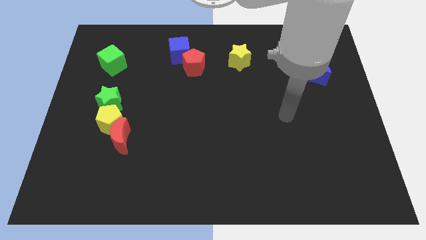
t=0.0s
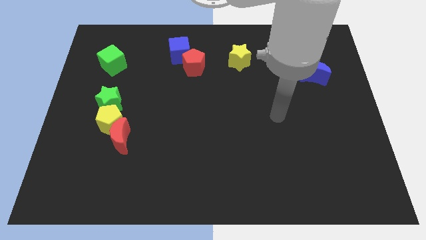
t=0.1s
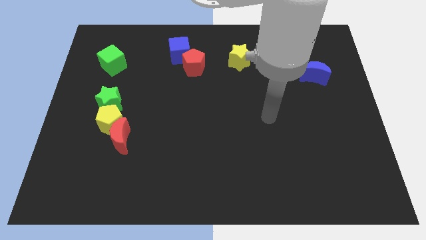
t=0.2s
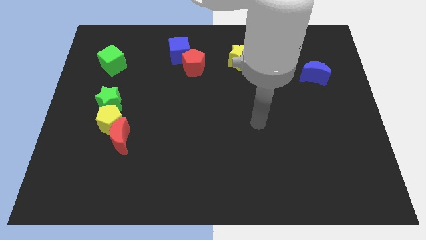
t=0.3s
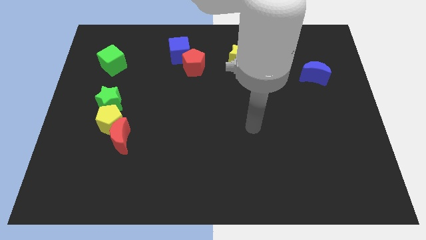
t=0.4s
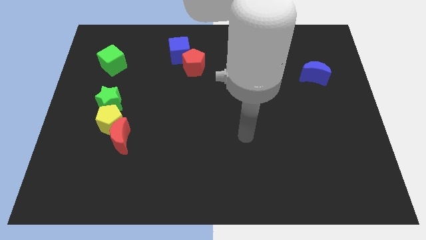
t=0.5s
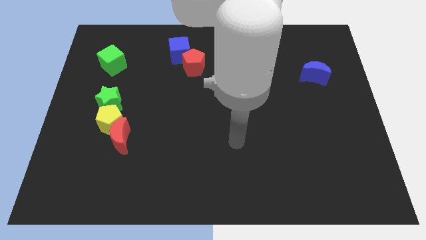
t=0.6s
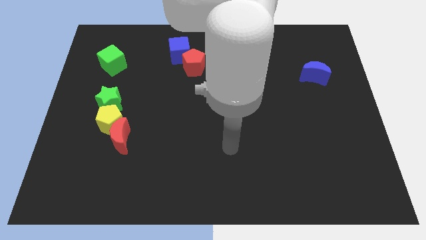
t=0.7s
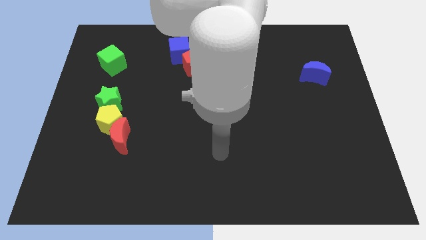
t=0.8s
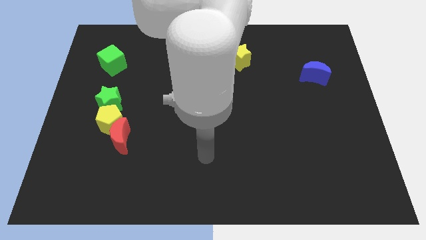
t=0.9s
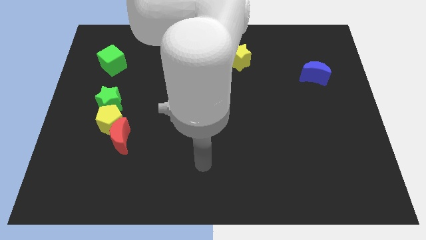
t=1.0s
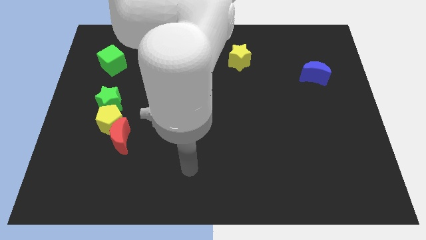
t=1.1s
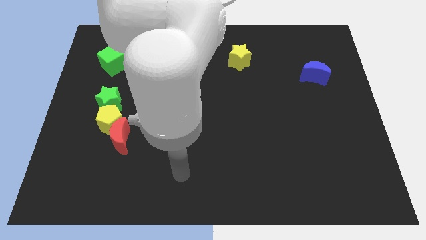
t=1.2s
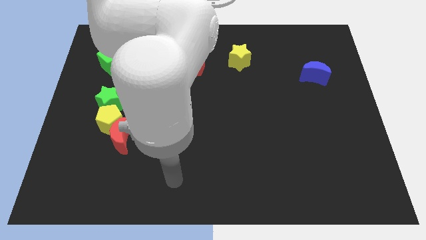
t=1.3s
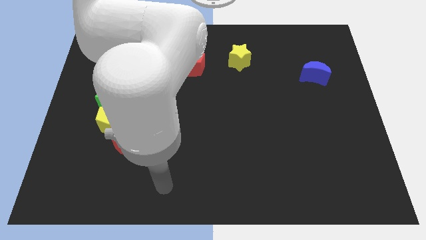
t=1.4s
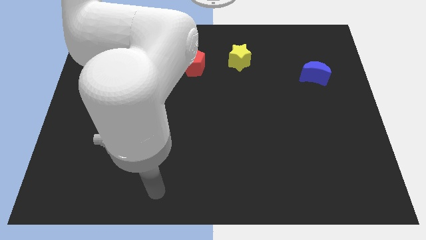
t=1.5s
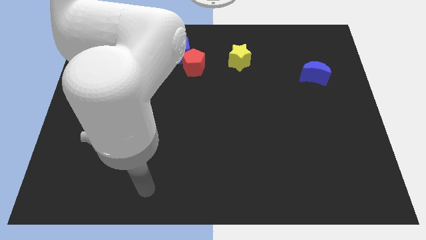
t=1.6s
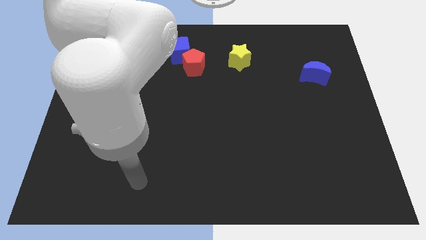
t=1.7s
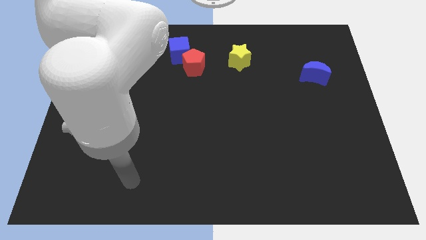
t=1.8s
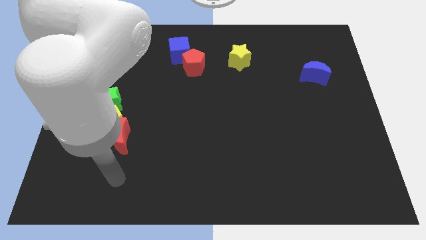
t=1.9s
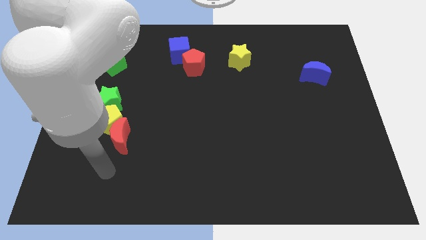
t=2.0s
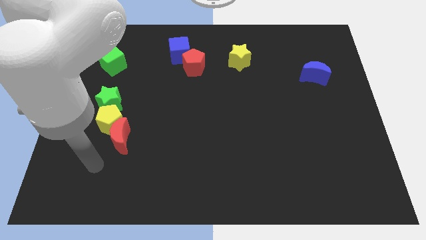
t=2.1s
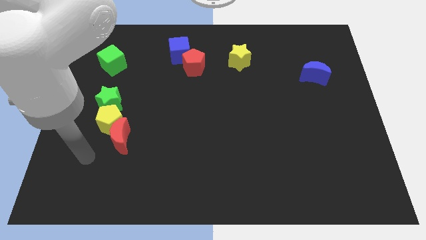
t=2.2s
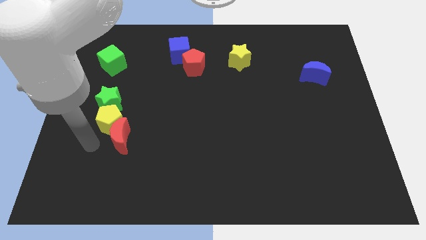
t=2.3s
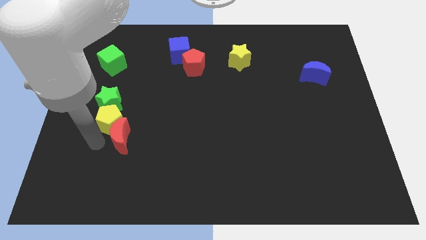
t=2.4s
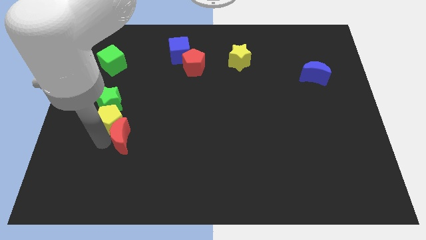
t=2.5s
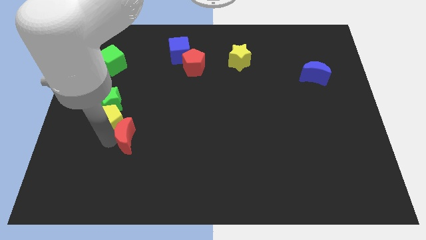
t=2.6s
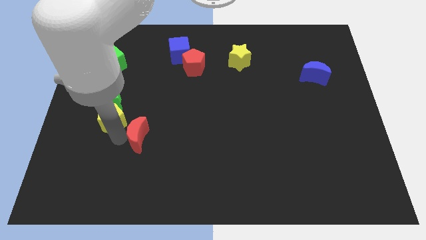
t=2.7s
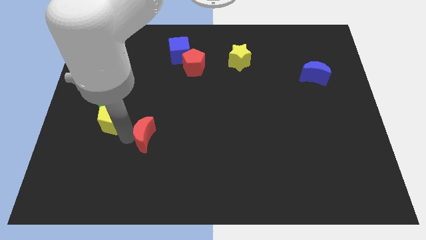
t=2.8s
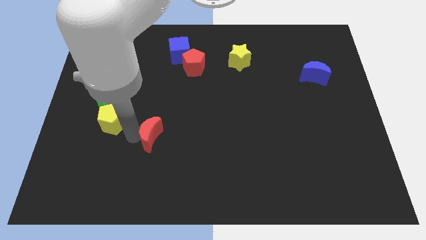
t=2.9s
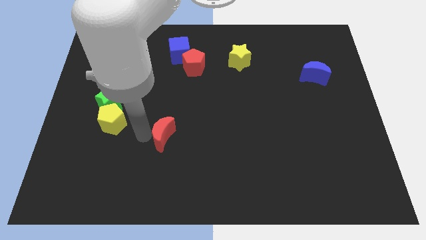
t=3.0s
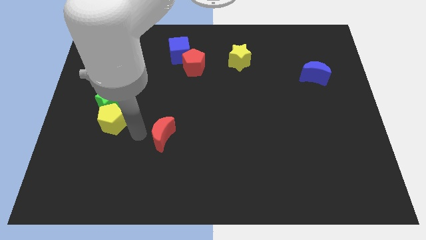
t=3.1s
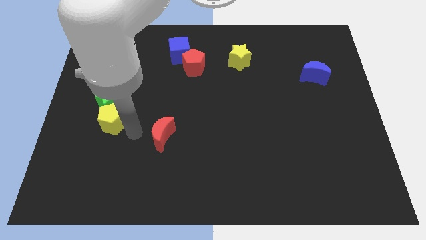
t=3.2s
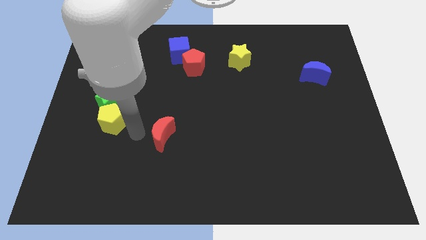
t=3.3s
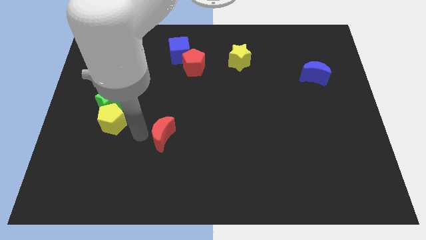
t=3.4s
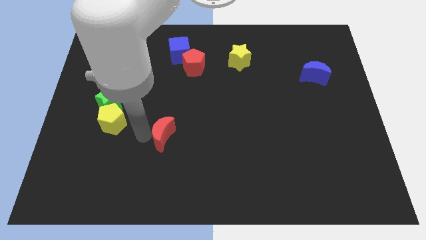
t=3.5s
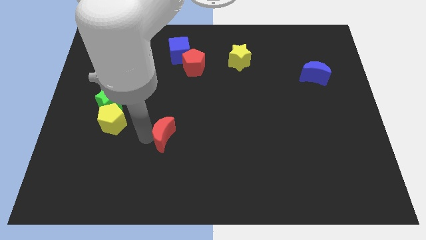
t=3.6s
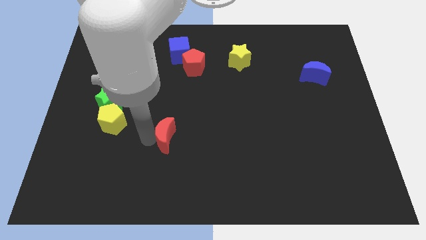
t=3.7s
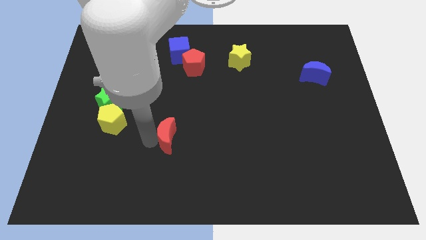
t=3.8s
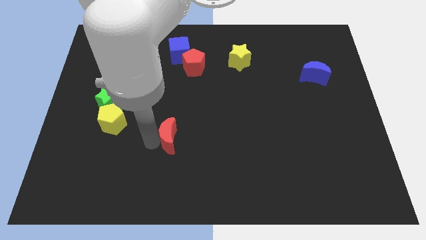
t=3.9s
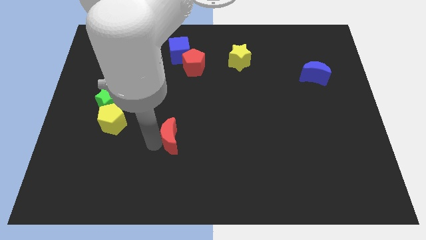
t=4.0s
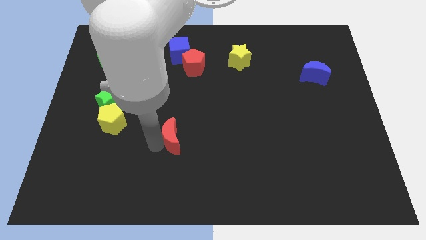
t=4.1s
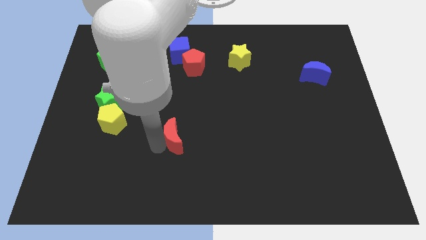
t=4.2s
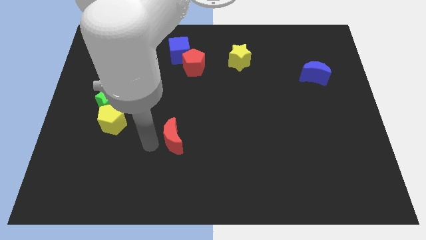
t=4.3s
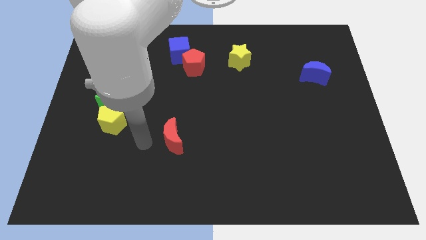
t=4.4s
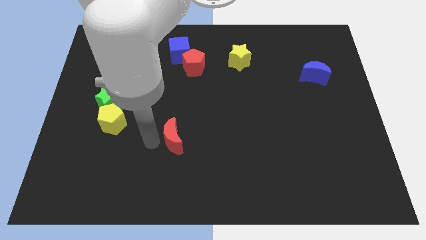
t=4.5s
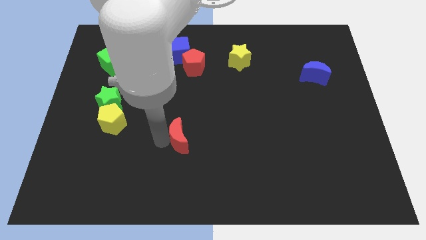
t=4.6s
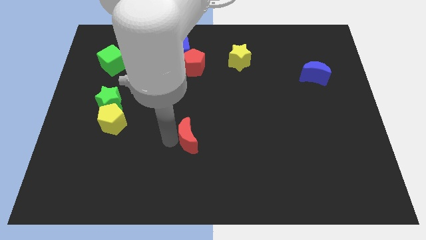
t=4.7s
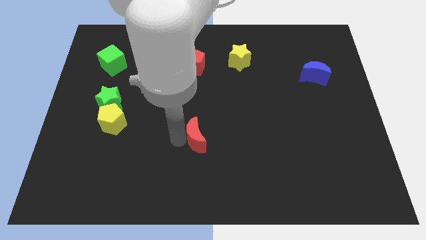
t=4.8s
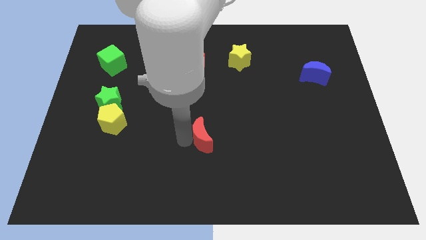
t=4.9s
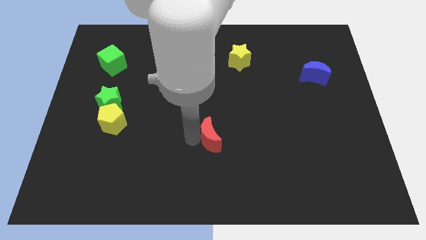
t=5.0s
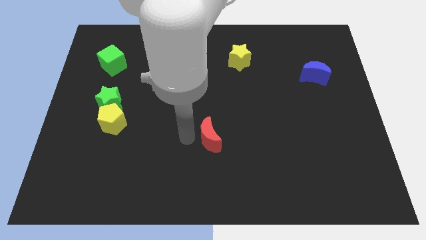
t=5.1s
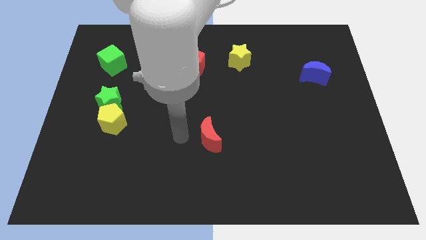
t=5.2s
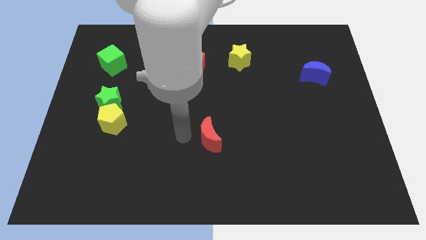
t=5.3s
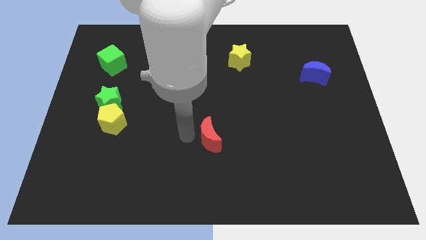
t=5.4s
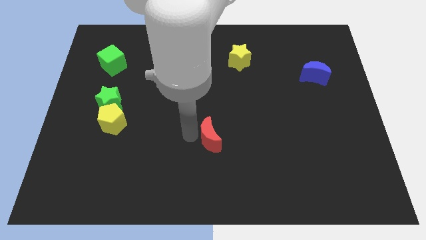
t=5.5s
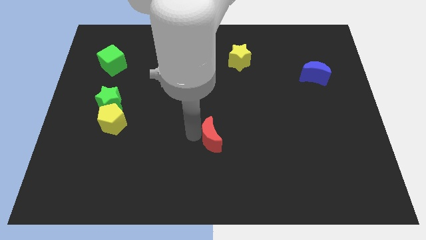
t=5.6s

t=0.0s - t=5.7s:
push the red moon right

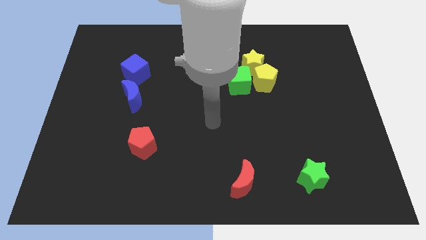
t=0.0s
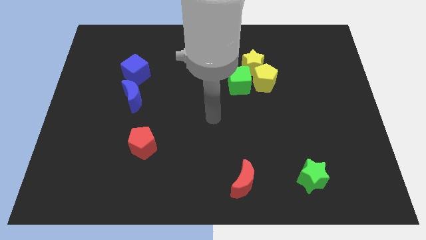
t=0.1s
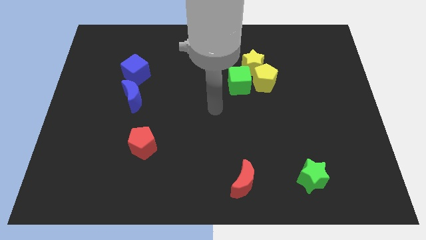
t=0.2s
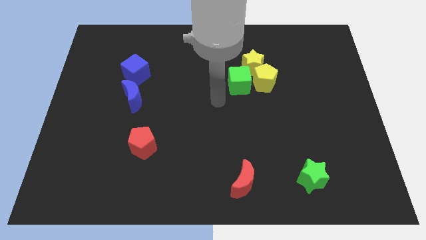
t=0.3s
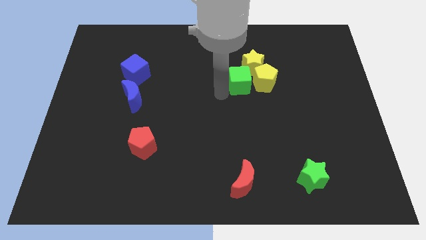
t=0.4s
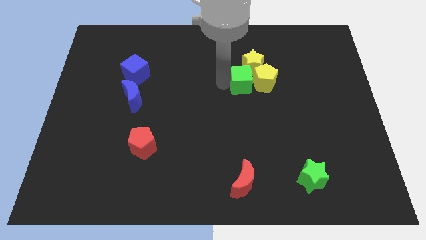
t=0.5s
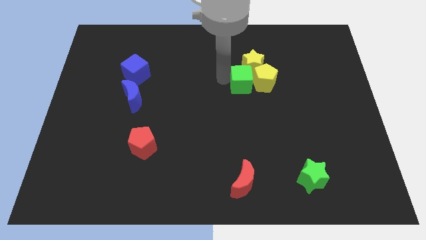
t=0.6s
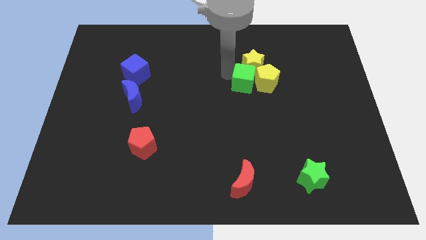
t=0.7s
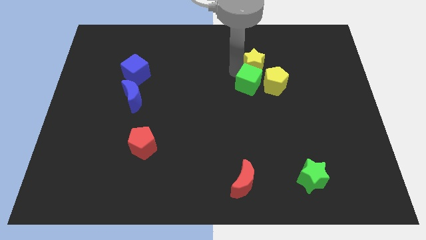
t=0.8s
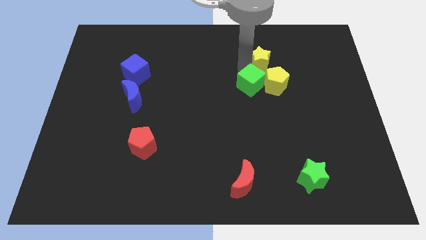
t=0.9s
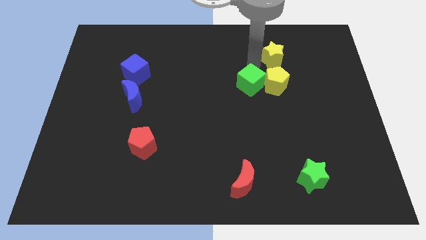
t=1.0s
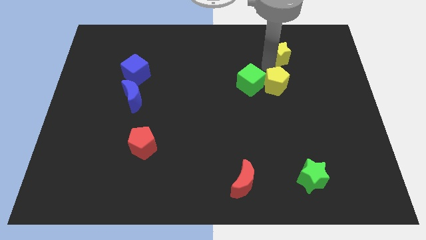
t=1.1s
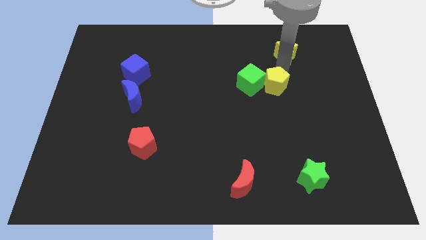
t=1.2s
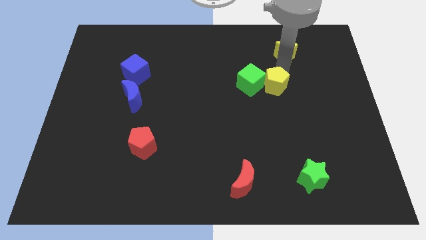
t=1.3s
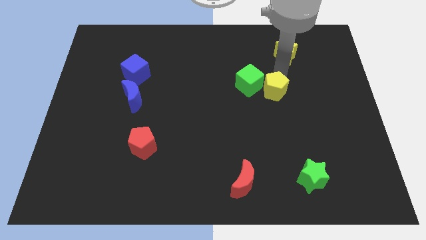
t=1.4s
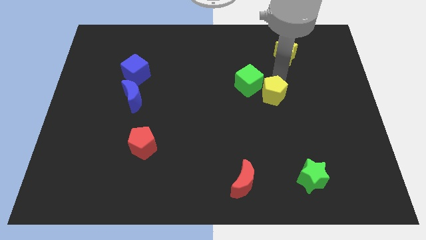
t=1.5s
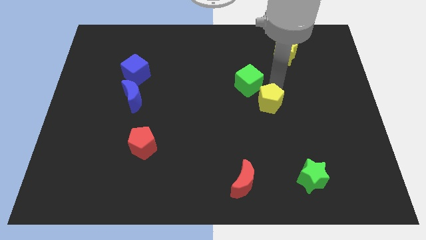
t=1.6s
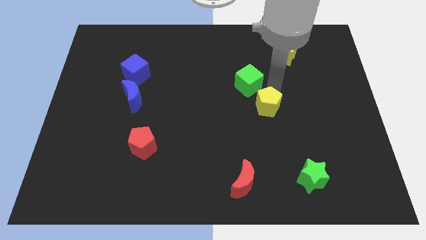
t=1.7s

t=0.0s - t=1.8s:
move the yellow pentagon downwards somewhat

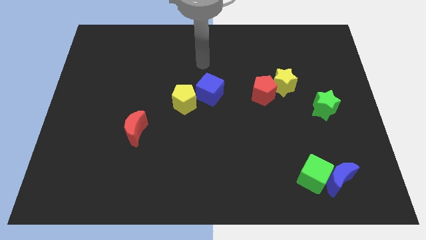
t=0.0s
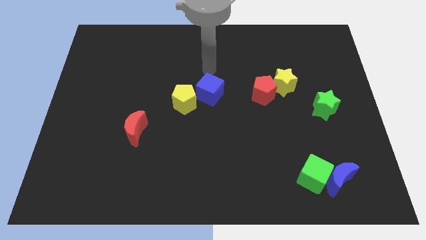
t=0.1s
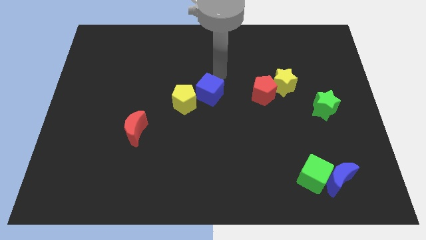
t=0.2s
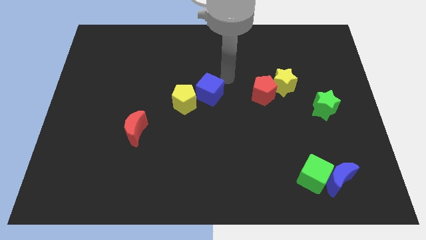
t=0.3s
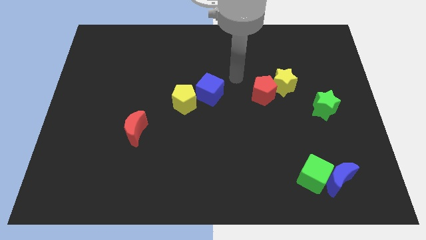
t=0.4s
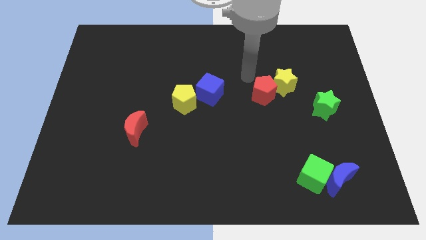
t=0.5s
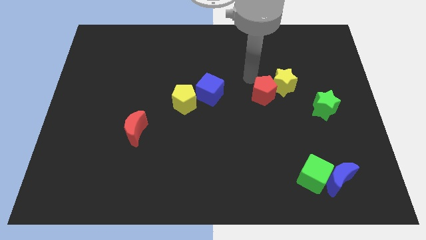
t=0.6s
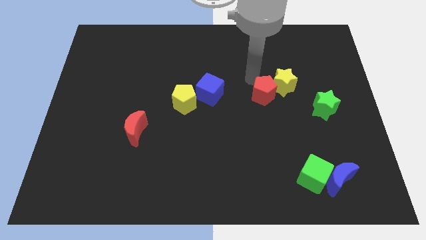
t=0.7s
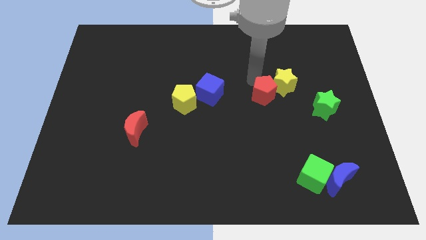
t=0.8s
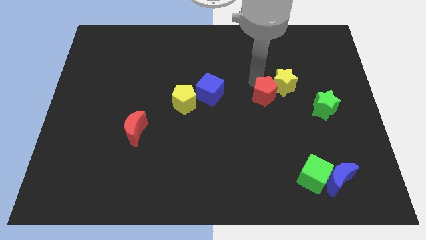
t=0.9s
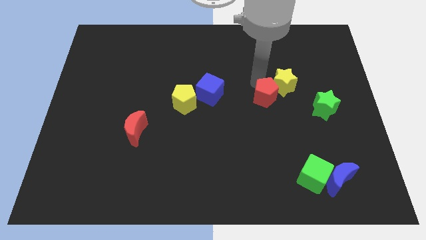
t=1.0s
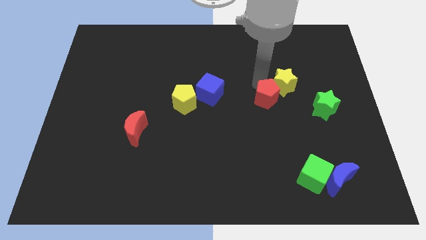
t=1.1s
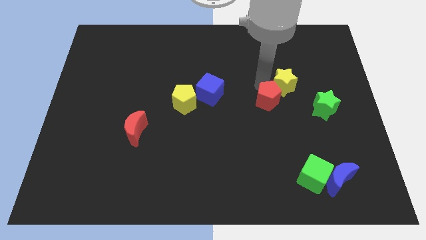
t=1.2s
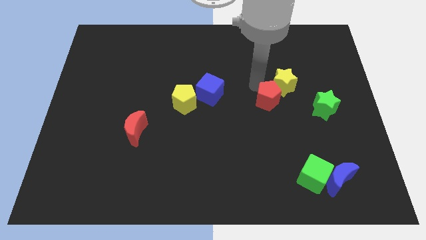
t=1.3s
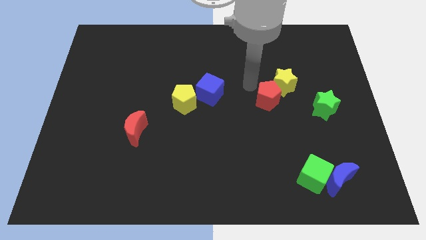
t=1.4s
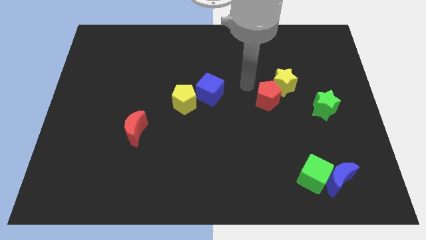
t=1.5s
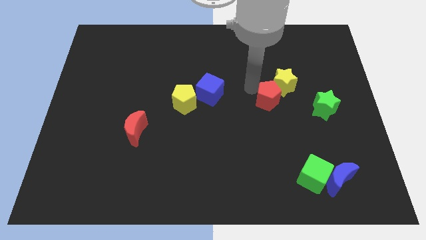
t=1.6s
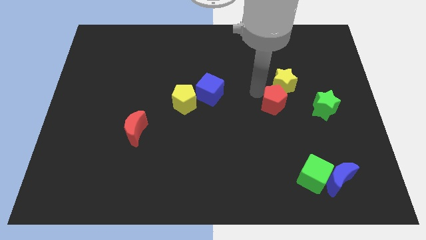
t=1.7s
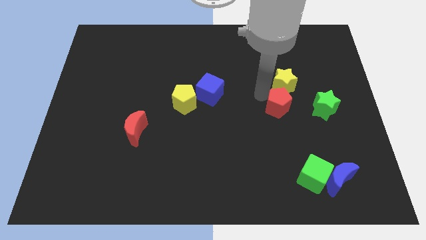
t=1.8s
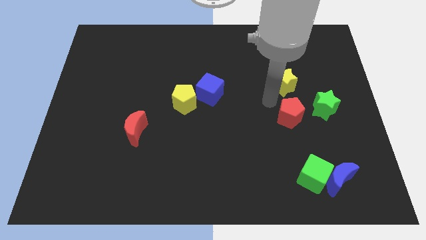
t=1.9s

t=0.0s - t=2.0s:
move the red pentagon a bit downwards and right
